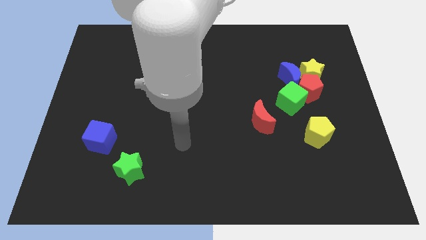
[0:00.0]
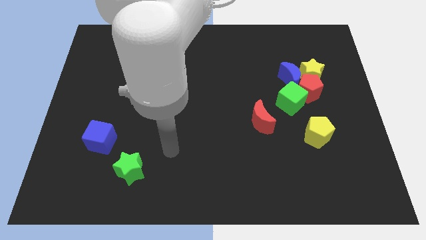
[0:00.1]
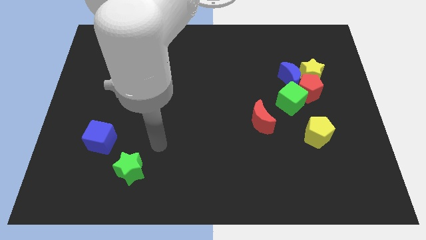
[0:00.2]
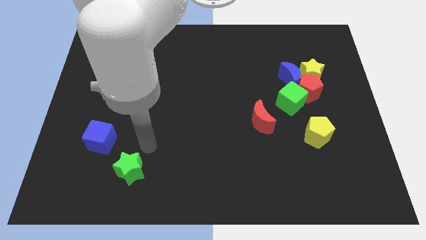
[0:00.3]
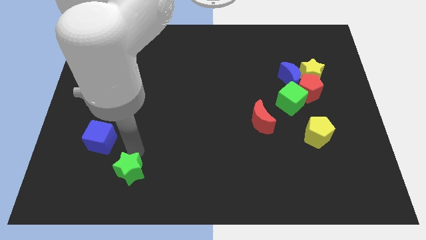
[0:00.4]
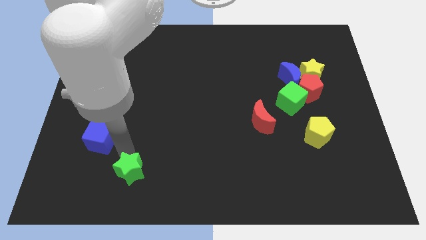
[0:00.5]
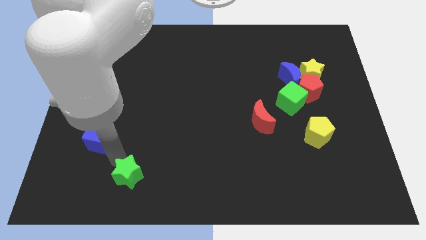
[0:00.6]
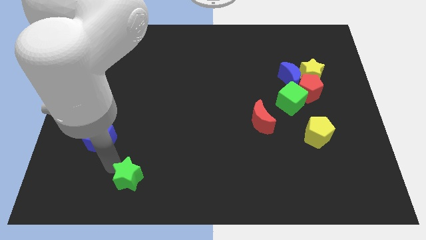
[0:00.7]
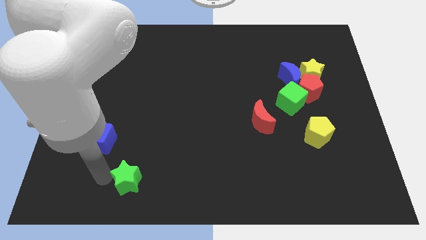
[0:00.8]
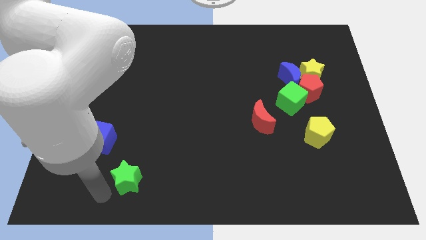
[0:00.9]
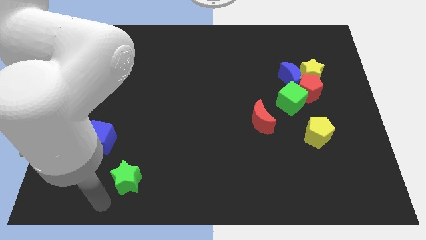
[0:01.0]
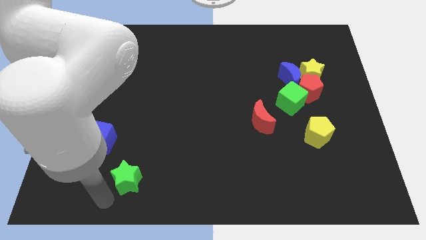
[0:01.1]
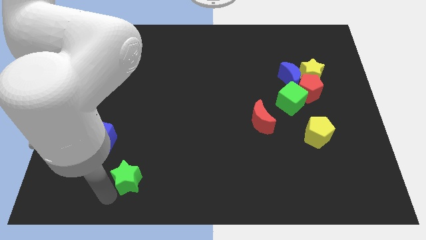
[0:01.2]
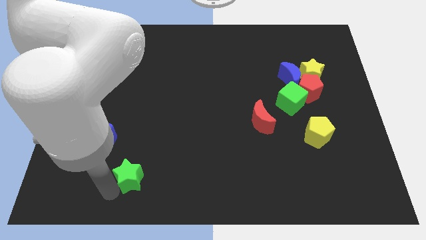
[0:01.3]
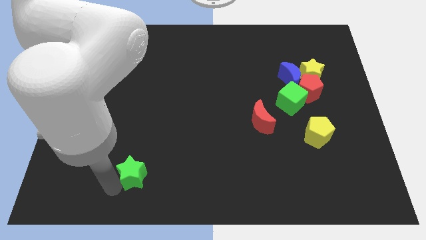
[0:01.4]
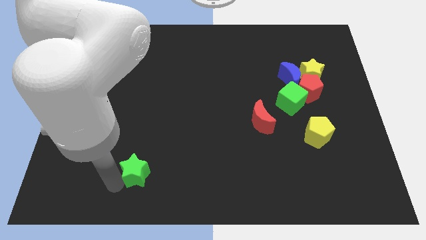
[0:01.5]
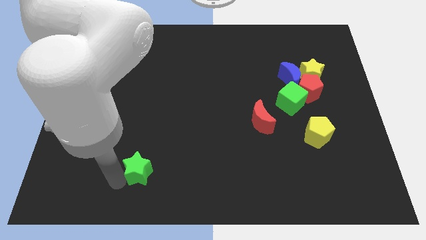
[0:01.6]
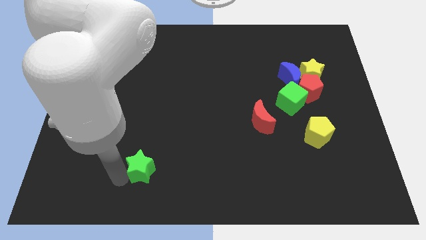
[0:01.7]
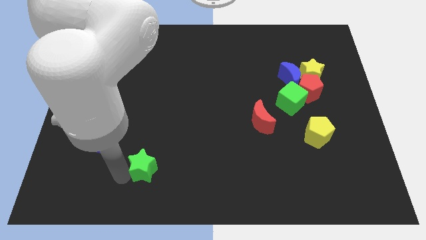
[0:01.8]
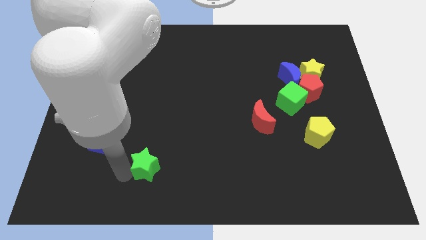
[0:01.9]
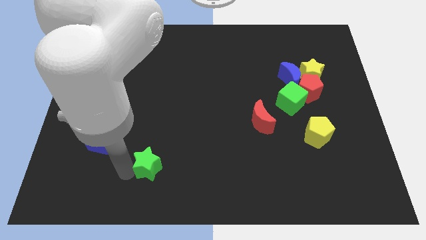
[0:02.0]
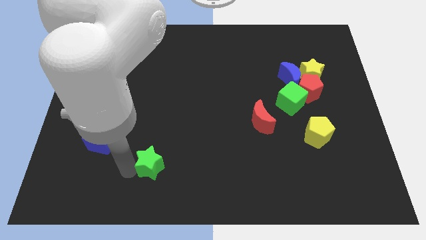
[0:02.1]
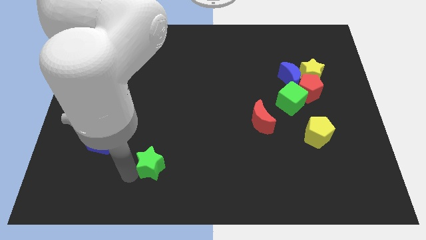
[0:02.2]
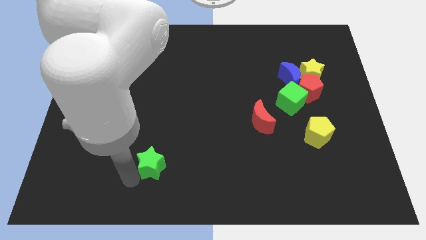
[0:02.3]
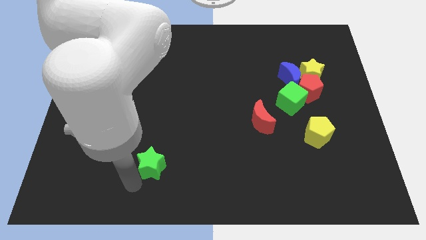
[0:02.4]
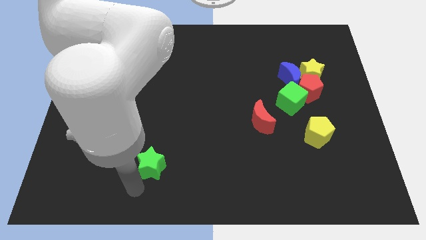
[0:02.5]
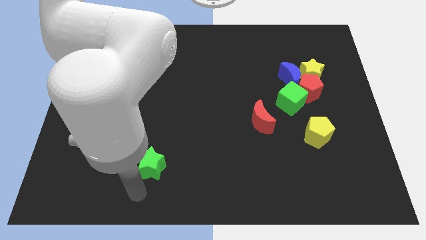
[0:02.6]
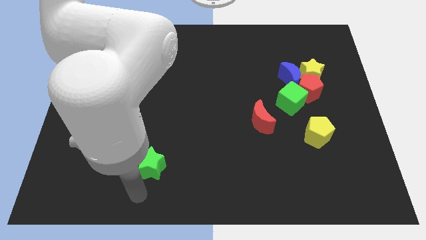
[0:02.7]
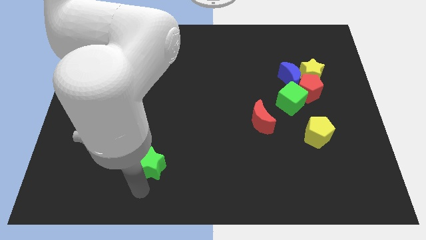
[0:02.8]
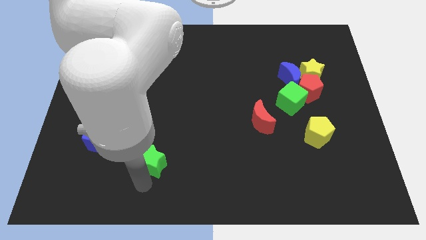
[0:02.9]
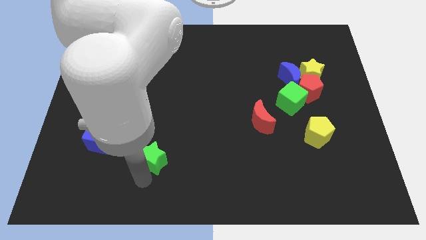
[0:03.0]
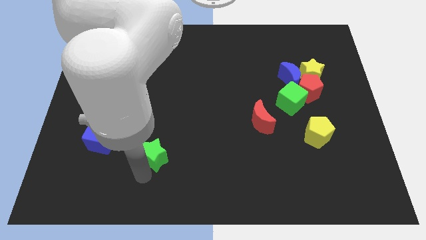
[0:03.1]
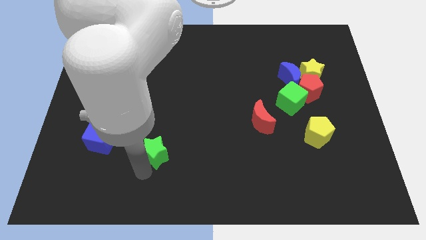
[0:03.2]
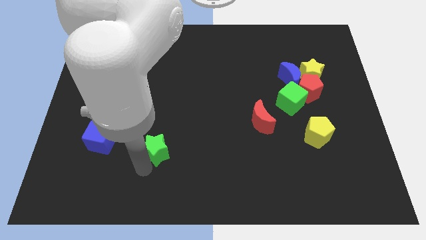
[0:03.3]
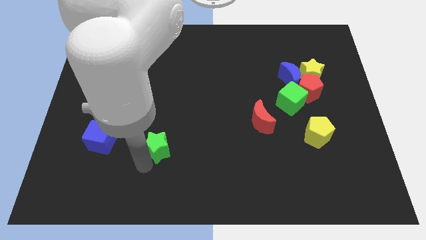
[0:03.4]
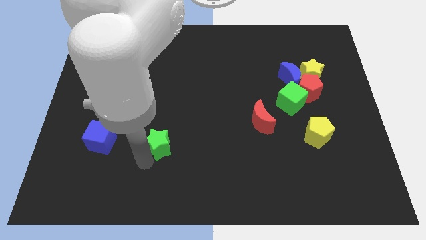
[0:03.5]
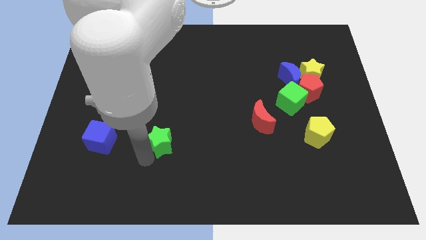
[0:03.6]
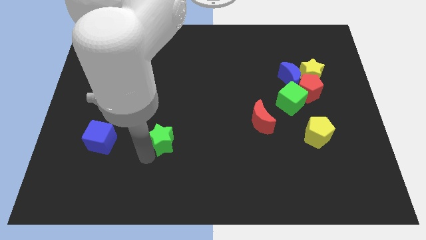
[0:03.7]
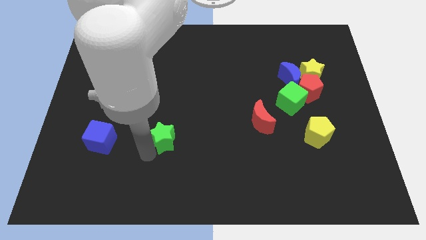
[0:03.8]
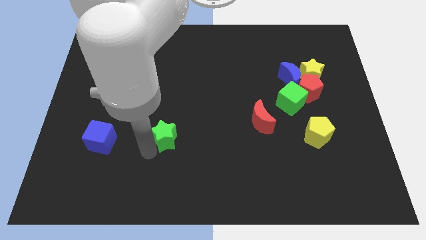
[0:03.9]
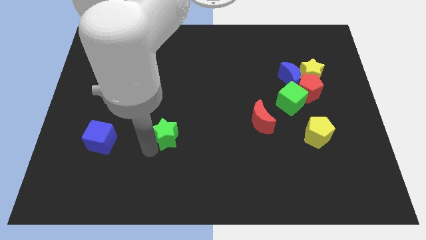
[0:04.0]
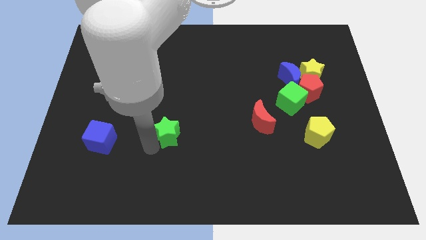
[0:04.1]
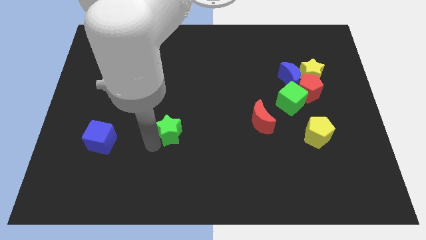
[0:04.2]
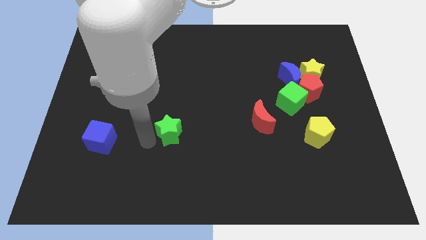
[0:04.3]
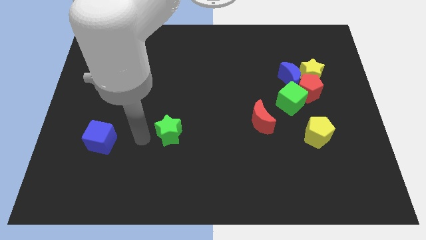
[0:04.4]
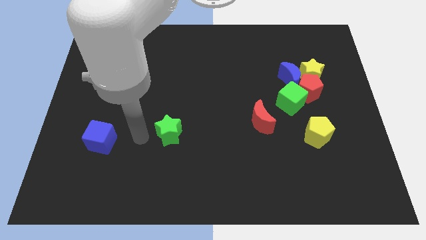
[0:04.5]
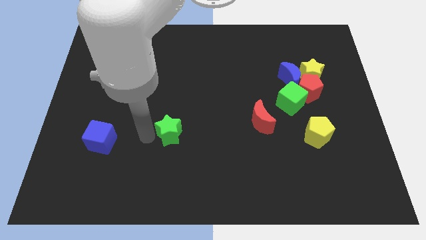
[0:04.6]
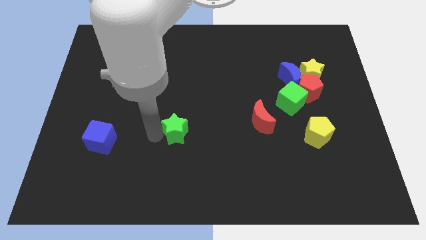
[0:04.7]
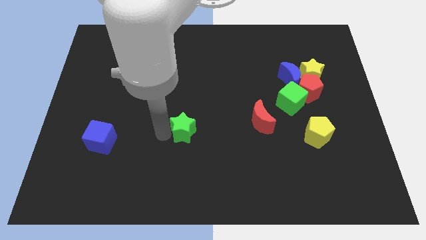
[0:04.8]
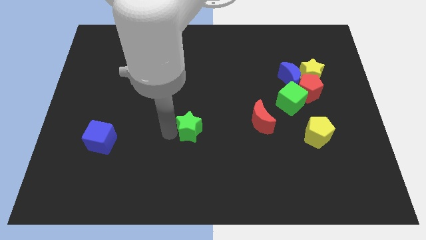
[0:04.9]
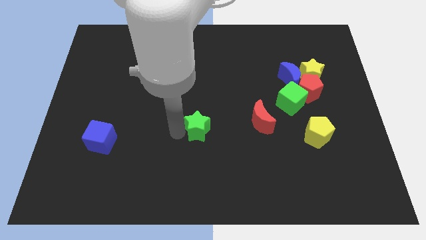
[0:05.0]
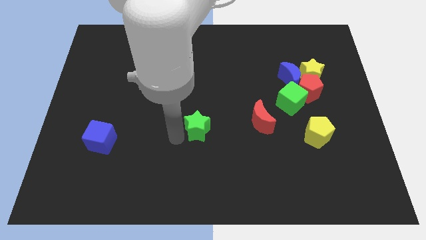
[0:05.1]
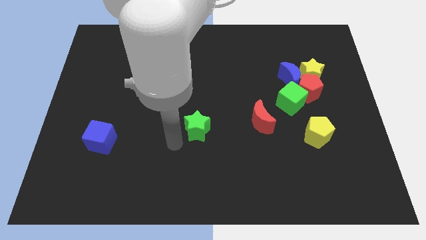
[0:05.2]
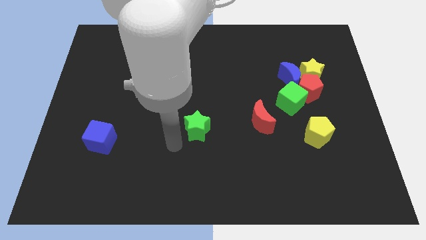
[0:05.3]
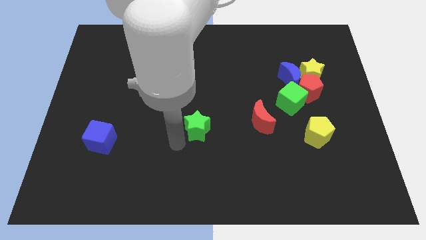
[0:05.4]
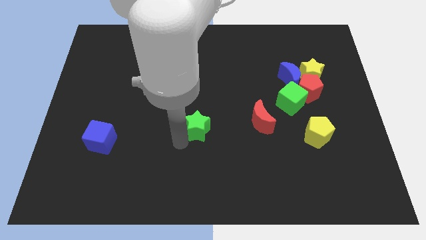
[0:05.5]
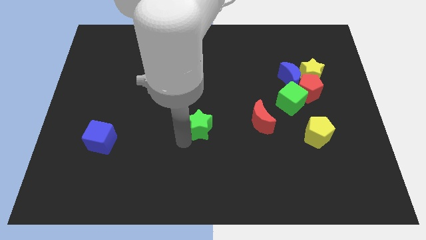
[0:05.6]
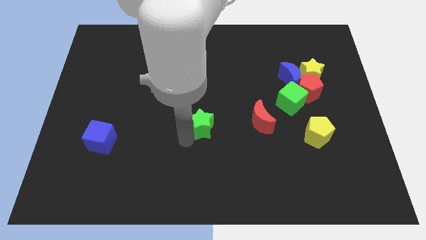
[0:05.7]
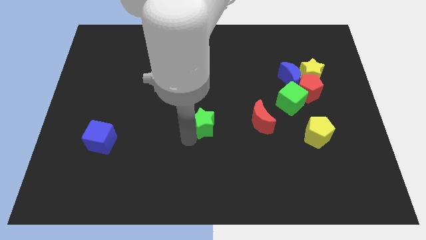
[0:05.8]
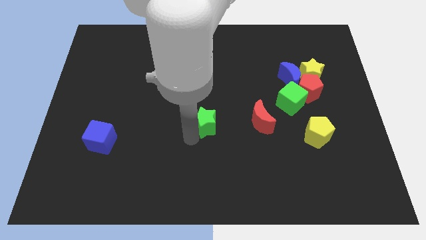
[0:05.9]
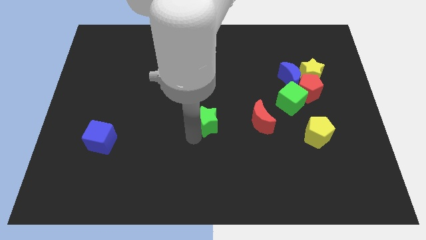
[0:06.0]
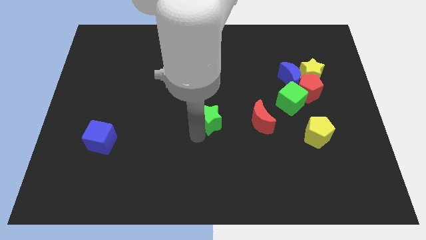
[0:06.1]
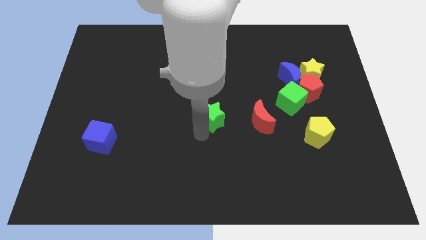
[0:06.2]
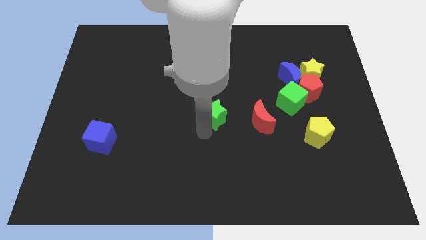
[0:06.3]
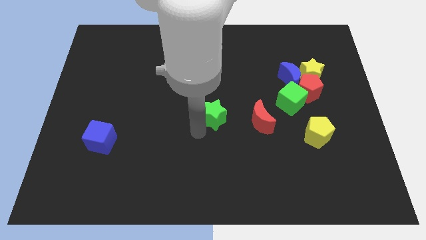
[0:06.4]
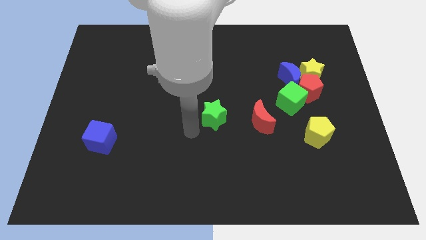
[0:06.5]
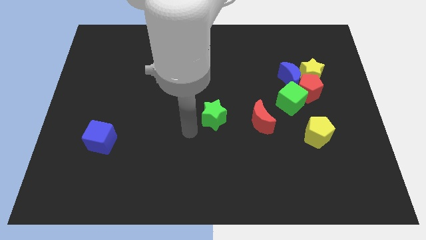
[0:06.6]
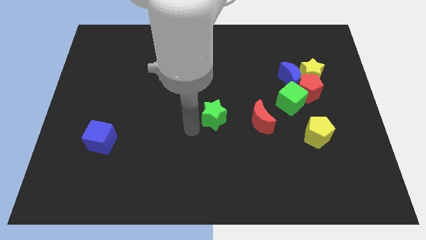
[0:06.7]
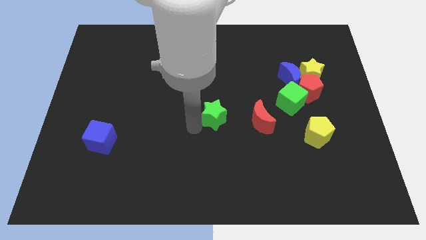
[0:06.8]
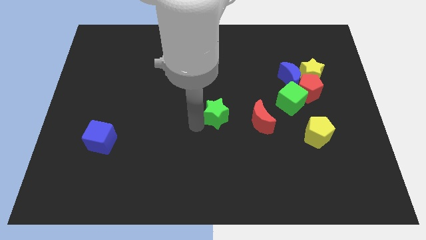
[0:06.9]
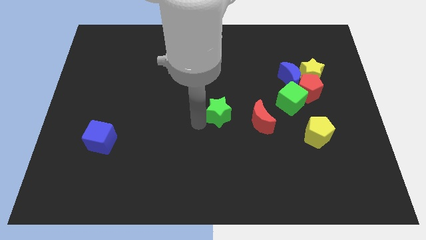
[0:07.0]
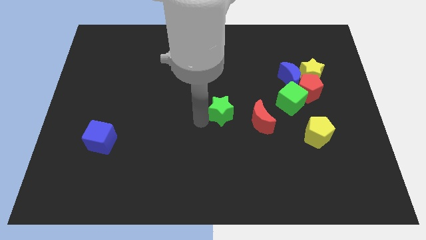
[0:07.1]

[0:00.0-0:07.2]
push the green star to the top left side of the red moon
